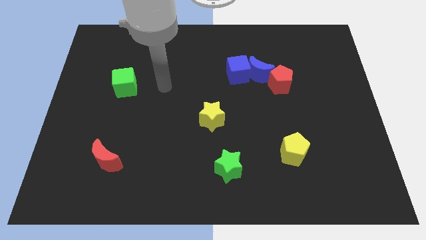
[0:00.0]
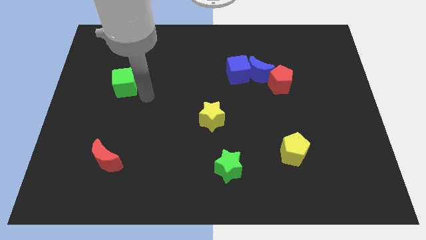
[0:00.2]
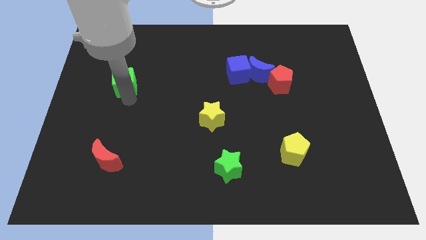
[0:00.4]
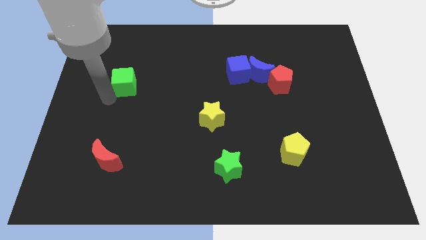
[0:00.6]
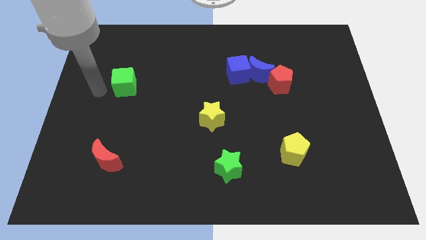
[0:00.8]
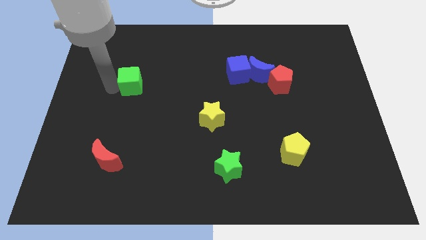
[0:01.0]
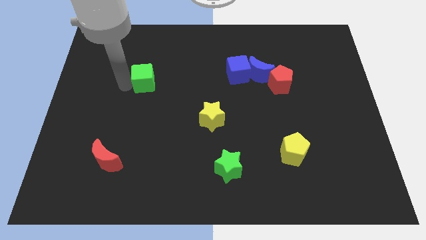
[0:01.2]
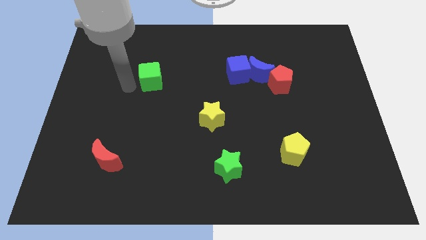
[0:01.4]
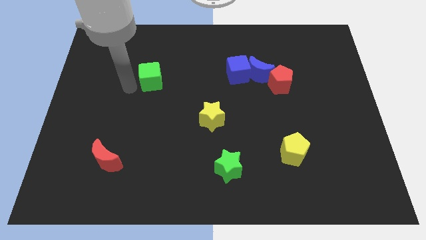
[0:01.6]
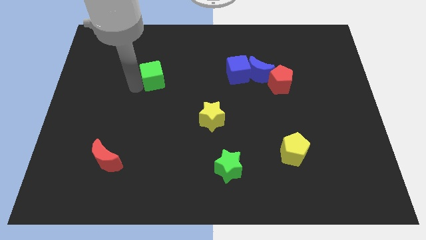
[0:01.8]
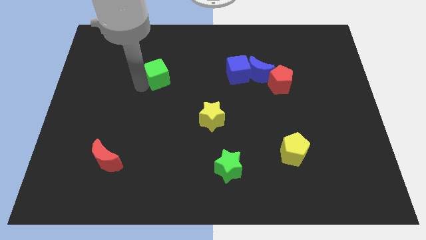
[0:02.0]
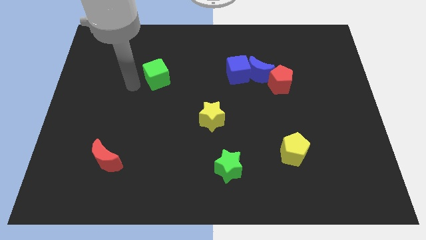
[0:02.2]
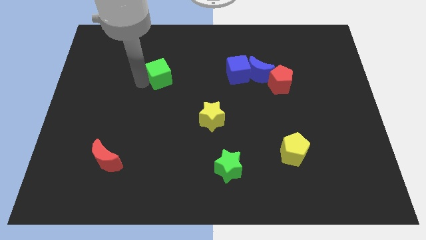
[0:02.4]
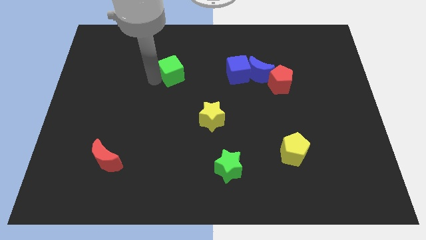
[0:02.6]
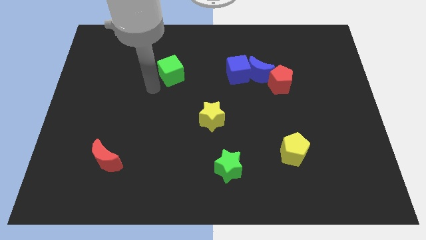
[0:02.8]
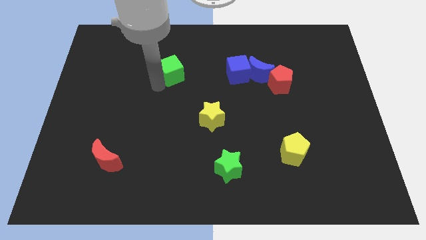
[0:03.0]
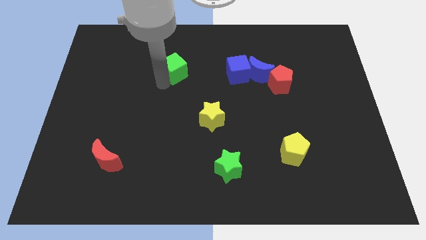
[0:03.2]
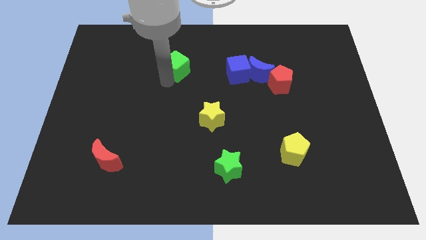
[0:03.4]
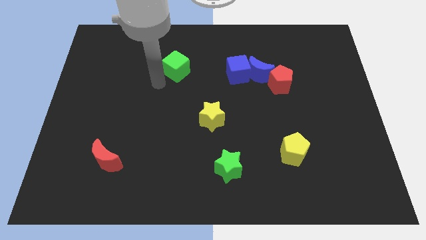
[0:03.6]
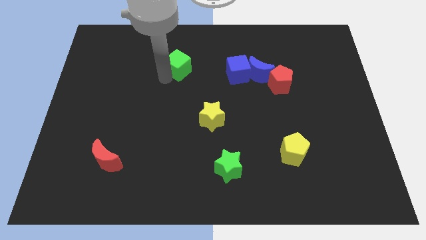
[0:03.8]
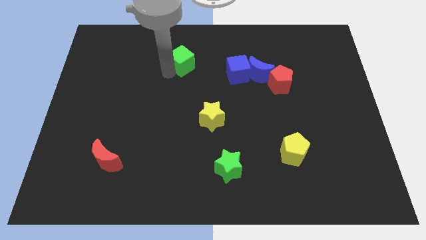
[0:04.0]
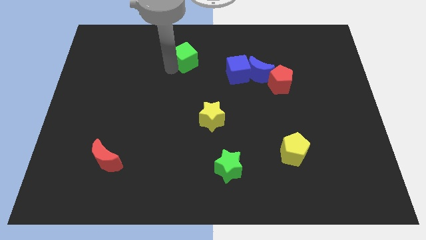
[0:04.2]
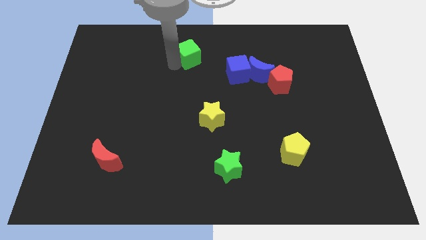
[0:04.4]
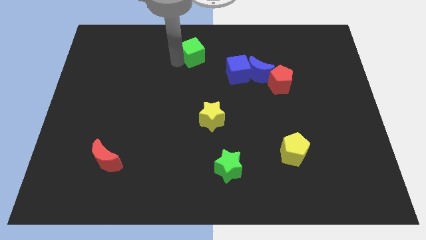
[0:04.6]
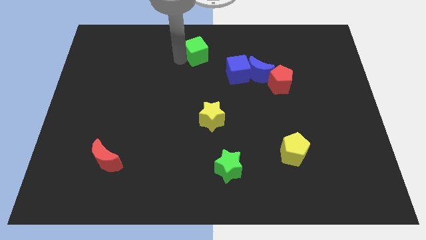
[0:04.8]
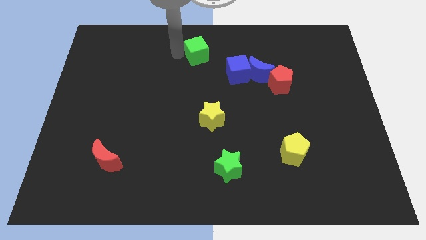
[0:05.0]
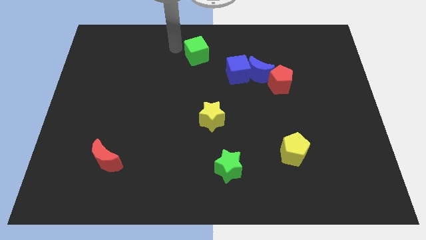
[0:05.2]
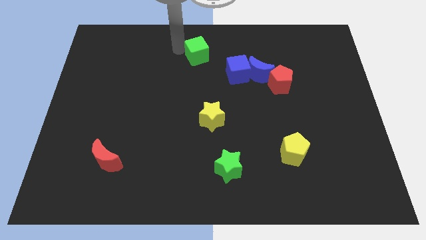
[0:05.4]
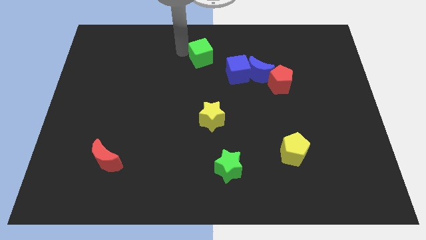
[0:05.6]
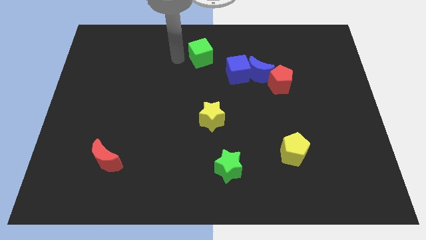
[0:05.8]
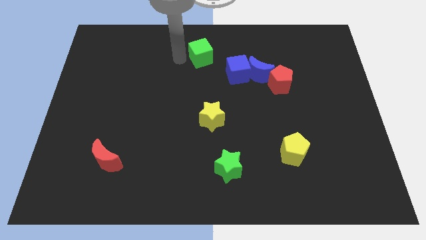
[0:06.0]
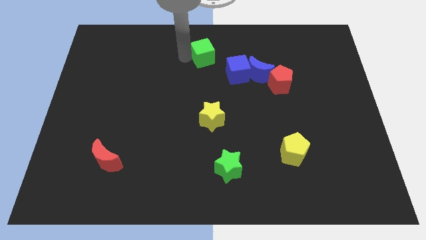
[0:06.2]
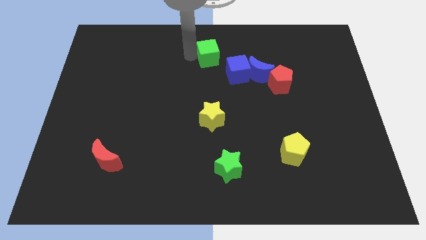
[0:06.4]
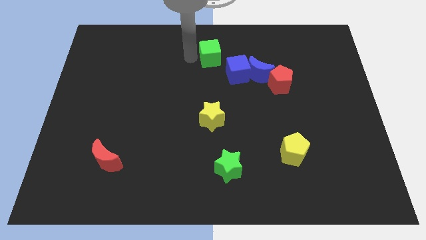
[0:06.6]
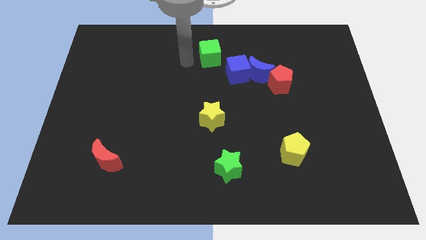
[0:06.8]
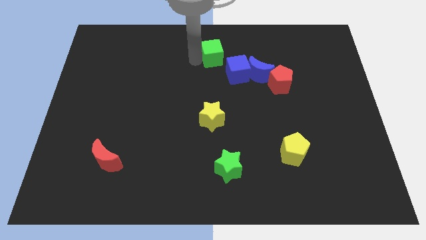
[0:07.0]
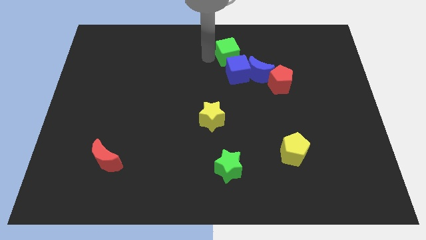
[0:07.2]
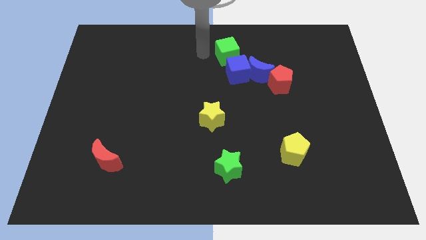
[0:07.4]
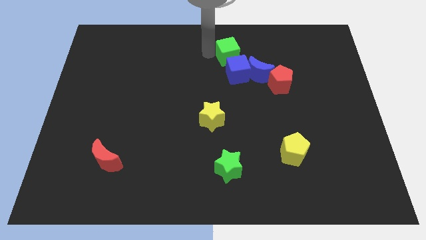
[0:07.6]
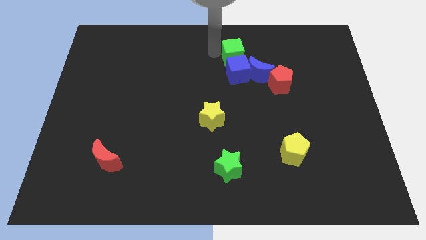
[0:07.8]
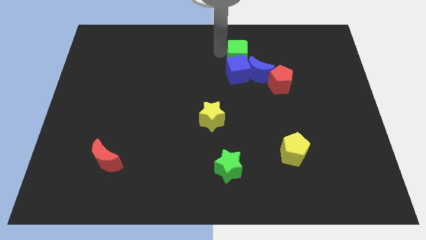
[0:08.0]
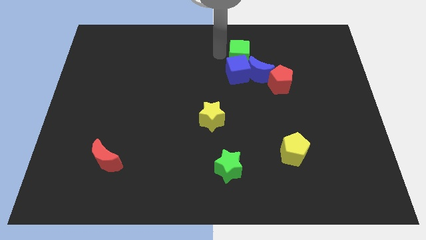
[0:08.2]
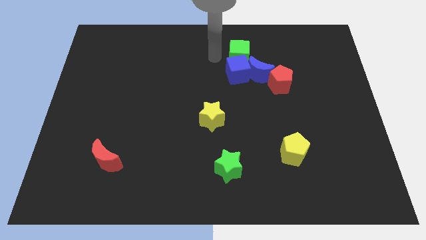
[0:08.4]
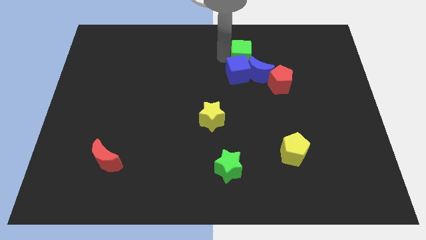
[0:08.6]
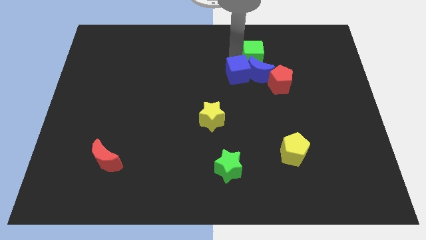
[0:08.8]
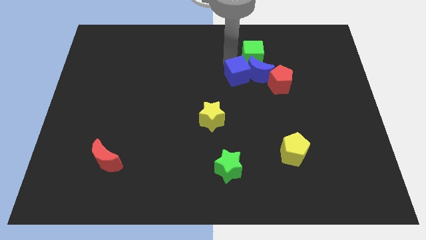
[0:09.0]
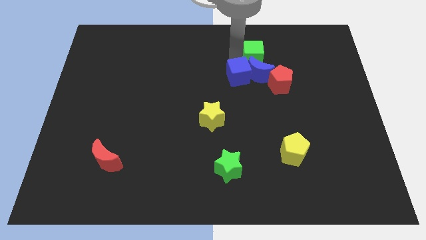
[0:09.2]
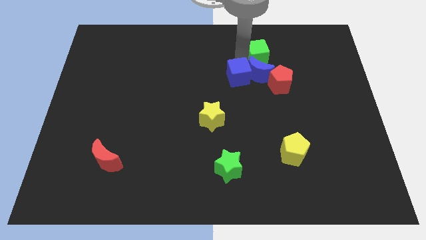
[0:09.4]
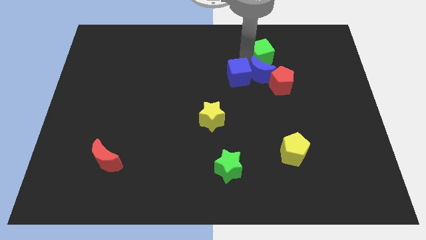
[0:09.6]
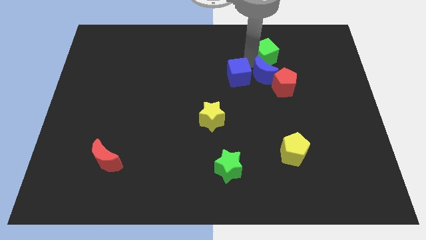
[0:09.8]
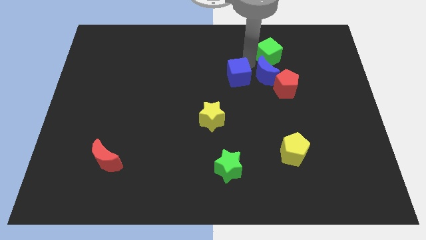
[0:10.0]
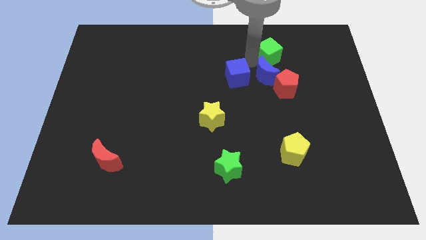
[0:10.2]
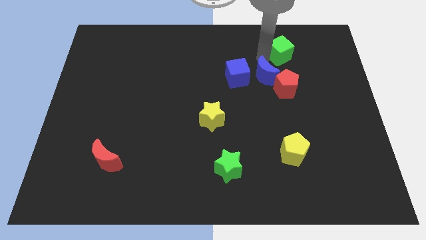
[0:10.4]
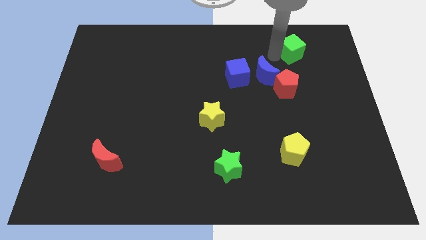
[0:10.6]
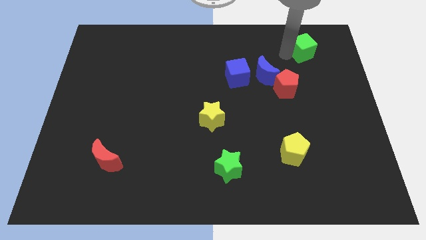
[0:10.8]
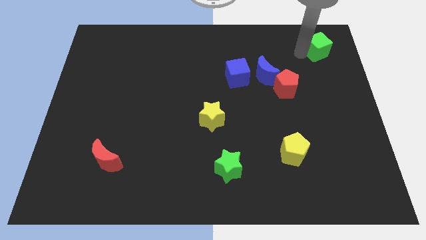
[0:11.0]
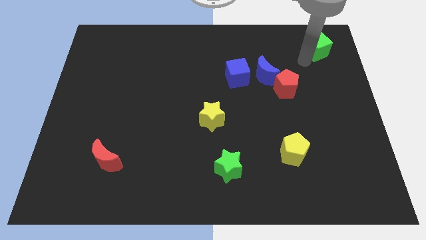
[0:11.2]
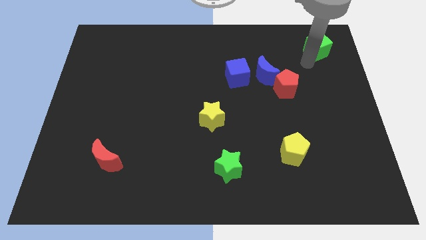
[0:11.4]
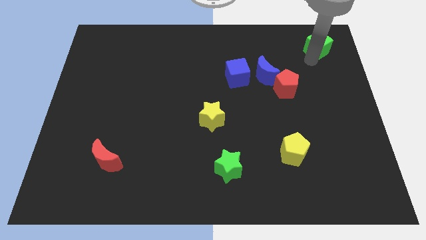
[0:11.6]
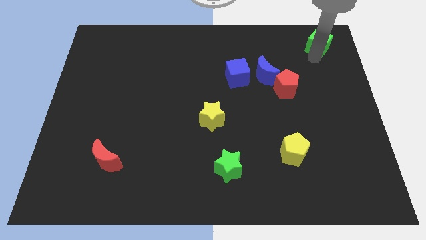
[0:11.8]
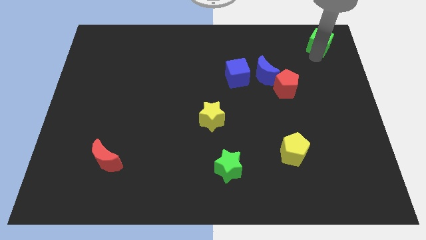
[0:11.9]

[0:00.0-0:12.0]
put the green cube to the top right corner
